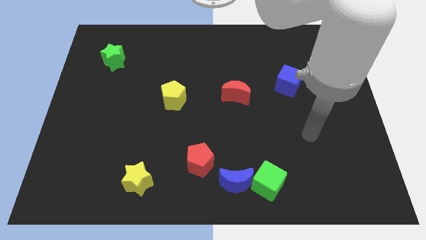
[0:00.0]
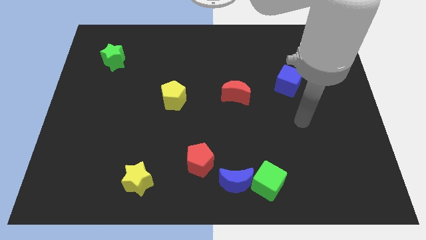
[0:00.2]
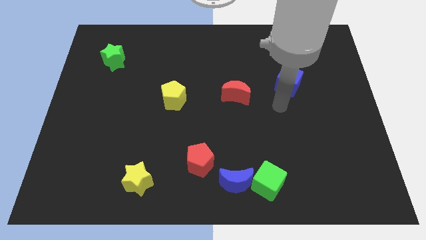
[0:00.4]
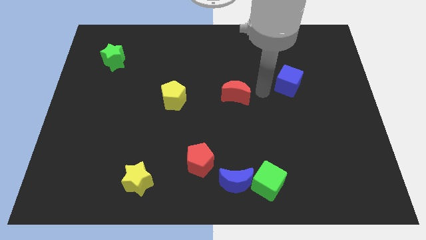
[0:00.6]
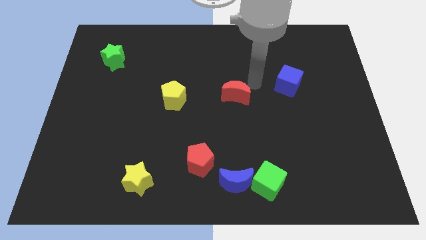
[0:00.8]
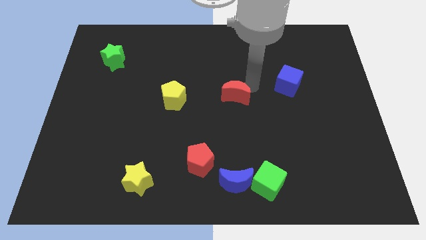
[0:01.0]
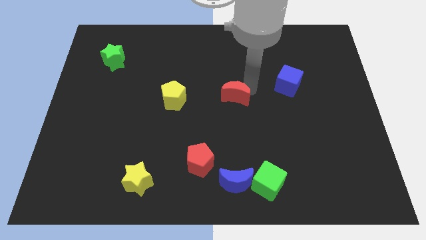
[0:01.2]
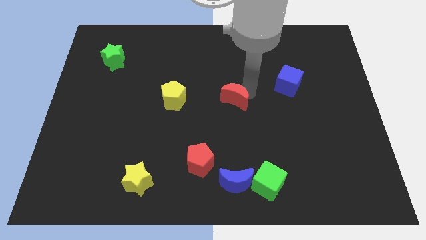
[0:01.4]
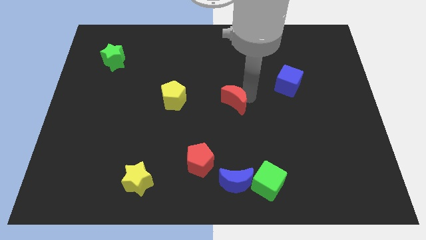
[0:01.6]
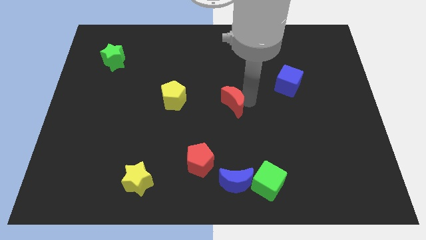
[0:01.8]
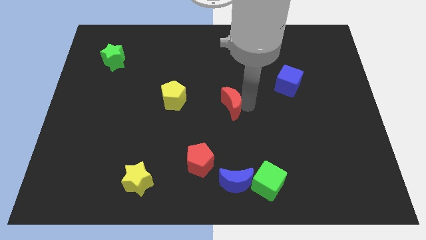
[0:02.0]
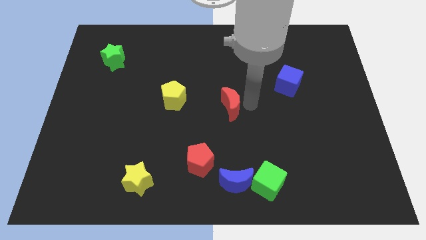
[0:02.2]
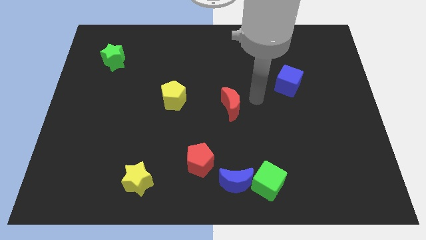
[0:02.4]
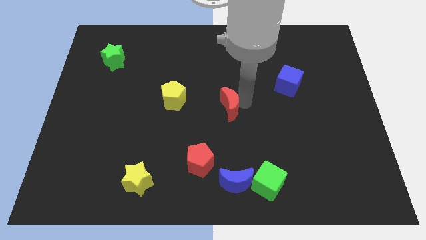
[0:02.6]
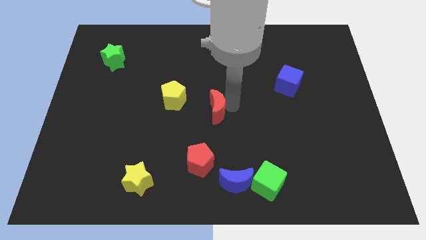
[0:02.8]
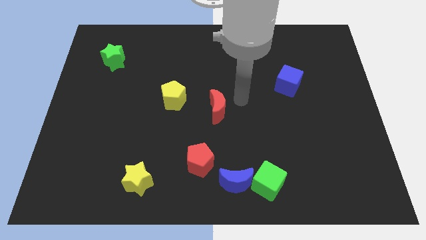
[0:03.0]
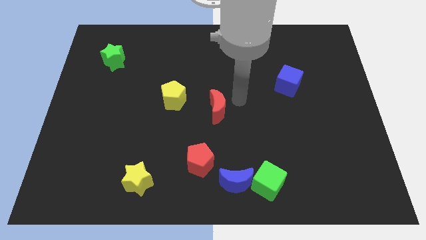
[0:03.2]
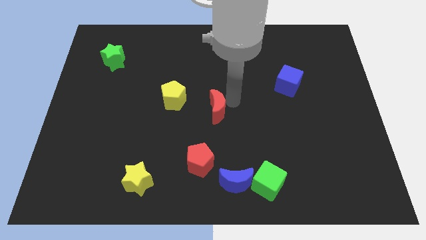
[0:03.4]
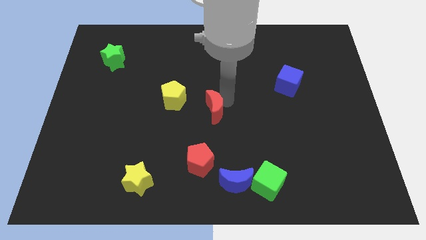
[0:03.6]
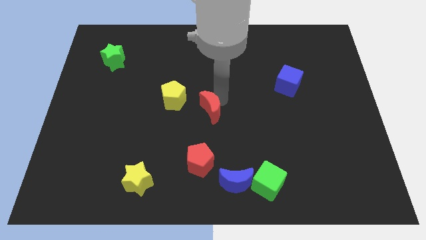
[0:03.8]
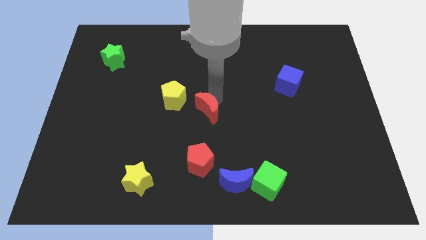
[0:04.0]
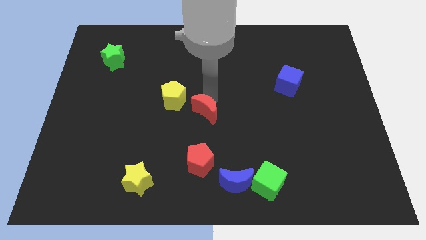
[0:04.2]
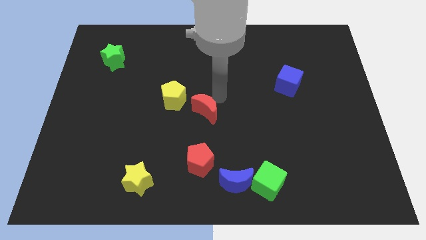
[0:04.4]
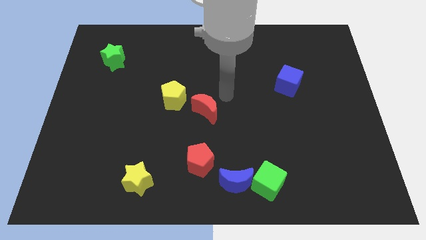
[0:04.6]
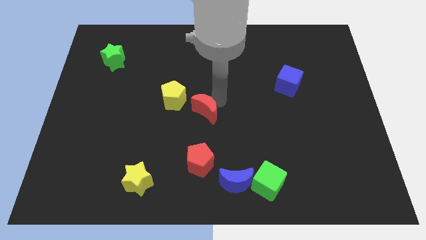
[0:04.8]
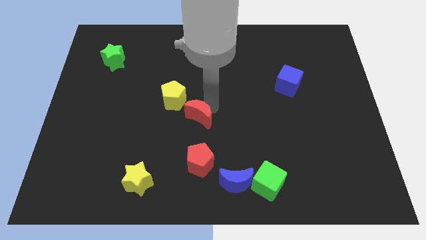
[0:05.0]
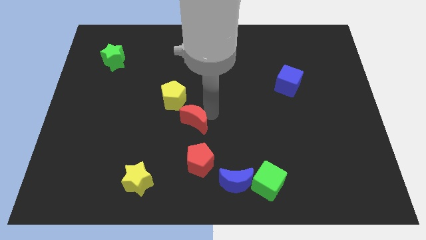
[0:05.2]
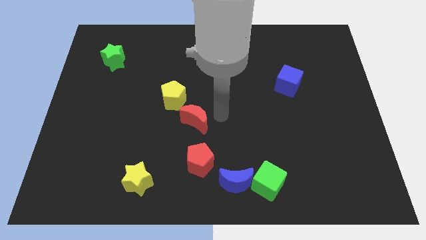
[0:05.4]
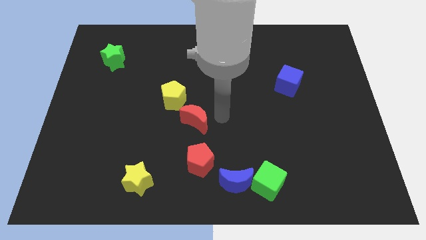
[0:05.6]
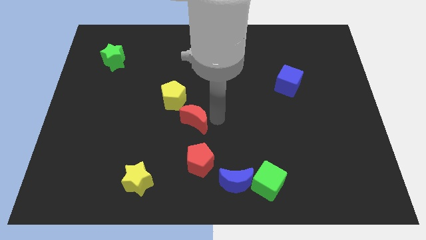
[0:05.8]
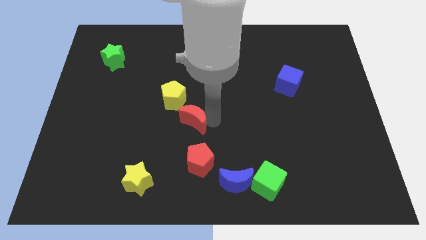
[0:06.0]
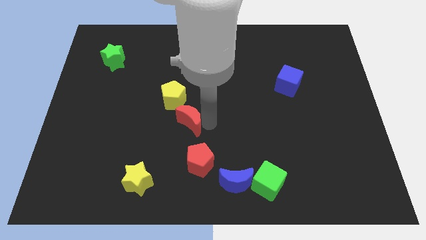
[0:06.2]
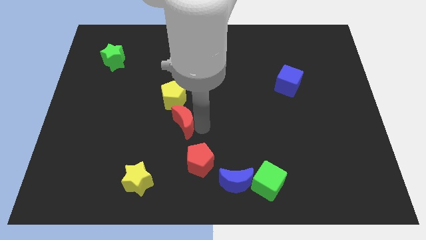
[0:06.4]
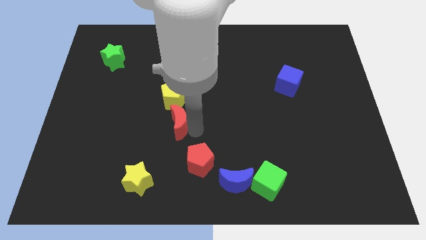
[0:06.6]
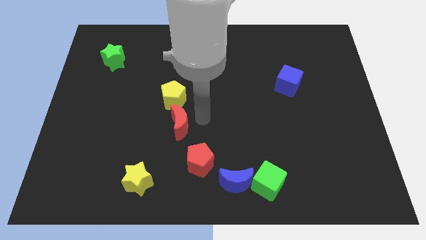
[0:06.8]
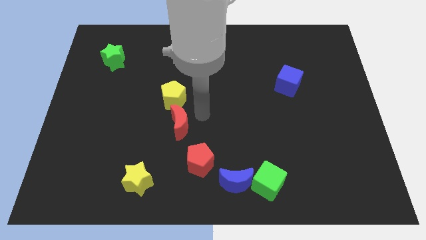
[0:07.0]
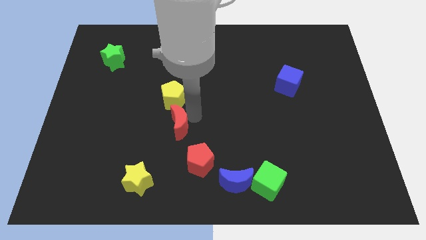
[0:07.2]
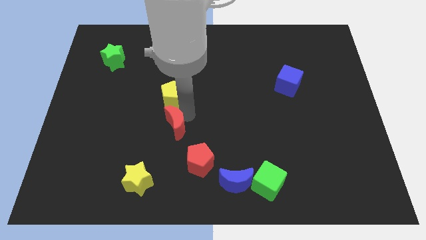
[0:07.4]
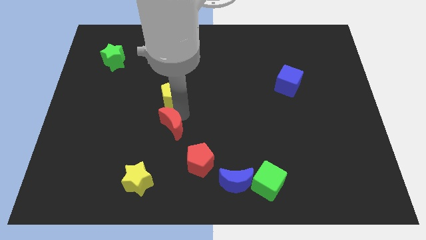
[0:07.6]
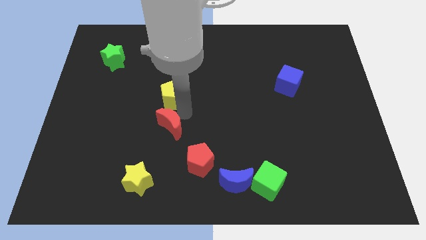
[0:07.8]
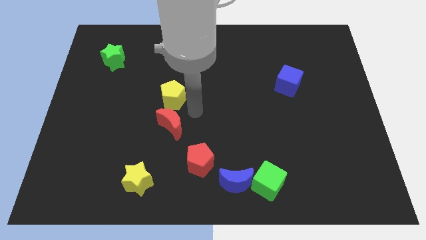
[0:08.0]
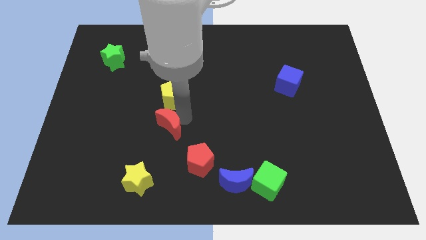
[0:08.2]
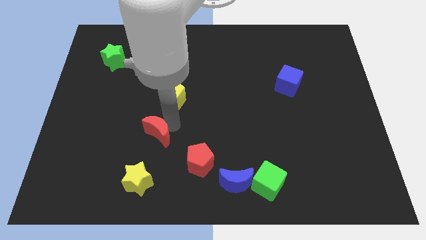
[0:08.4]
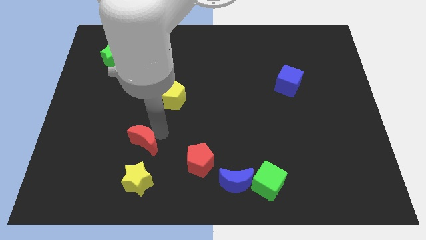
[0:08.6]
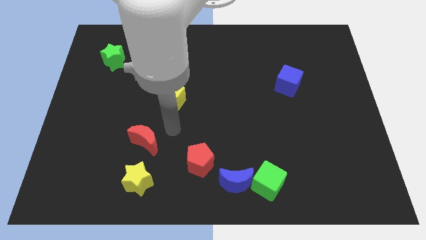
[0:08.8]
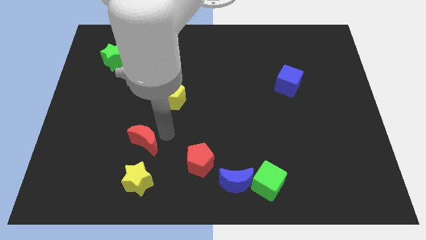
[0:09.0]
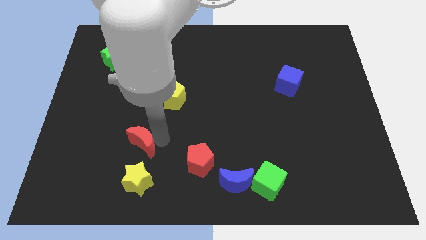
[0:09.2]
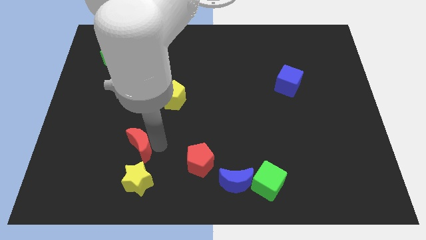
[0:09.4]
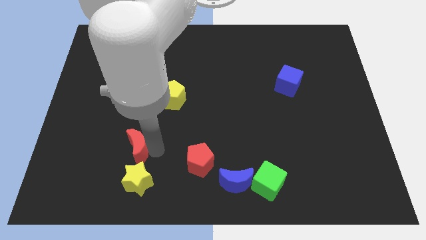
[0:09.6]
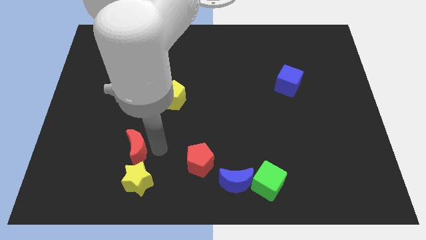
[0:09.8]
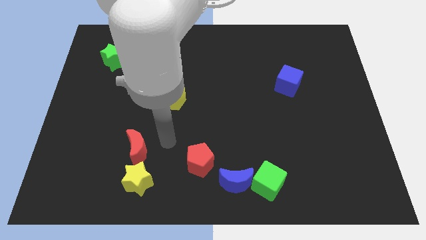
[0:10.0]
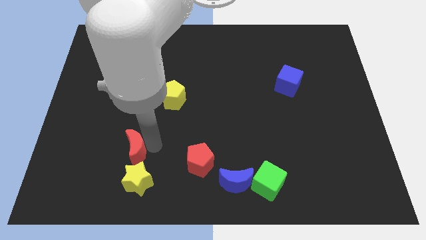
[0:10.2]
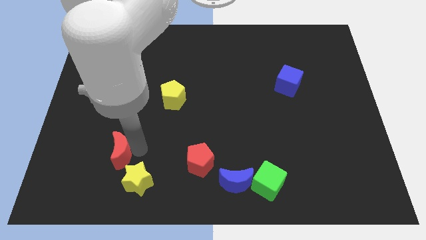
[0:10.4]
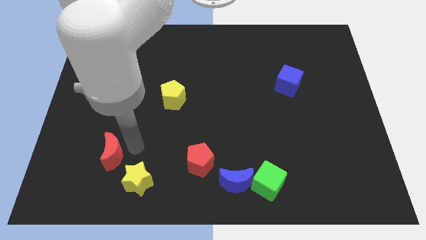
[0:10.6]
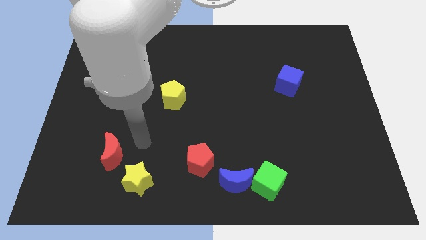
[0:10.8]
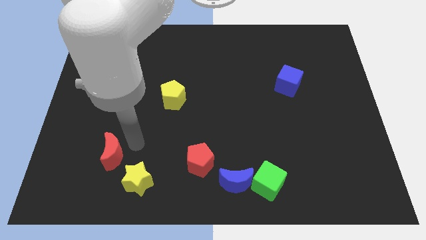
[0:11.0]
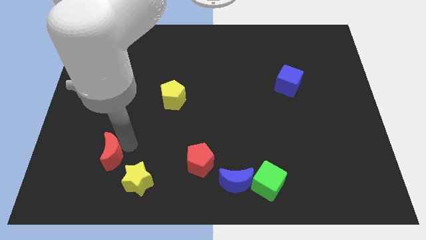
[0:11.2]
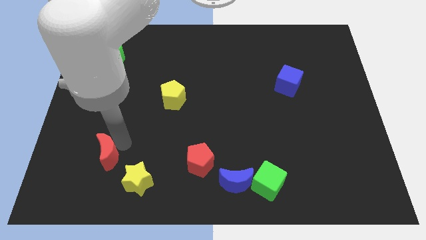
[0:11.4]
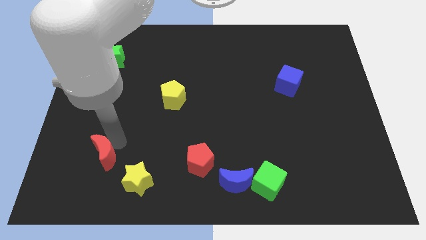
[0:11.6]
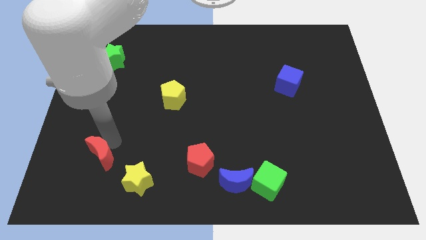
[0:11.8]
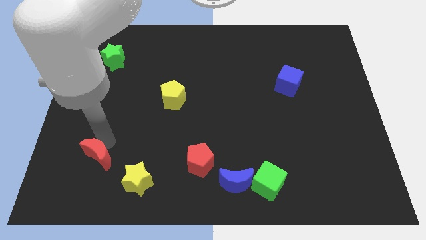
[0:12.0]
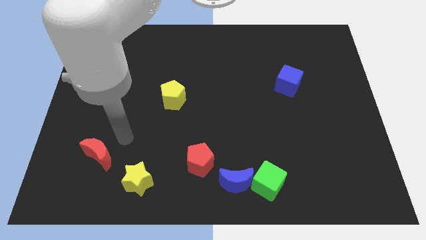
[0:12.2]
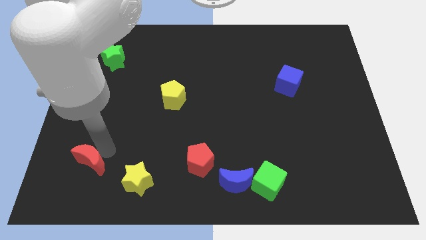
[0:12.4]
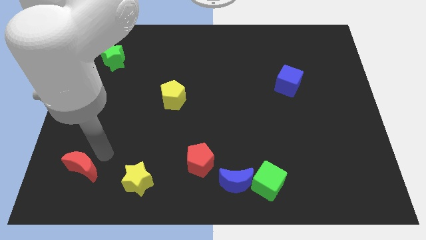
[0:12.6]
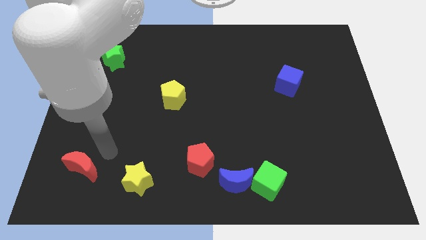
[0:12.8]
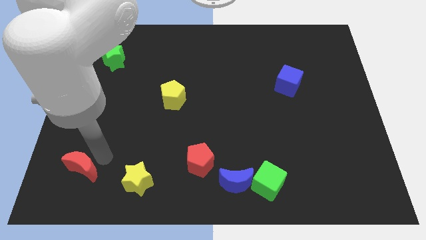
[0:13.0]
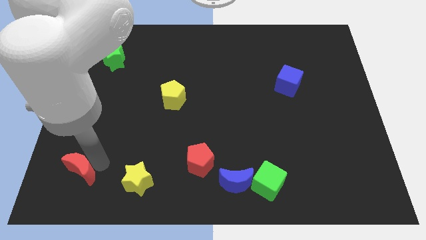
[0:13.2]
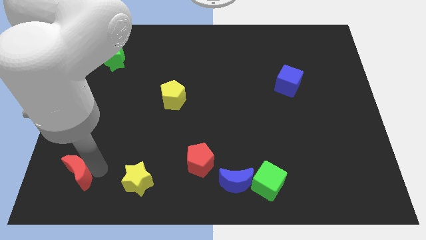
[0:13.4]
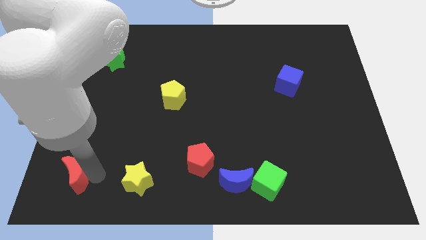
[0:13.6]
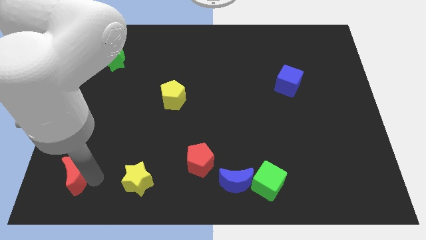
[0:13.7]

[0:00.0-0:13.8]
put the red moon to the lower left corner

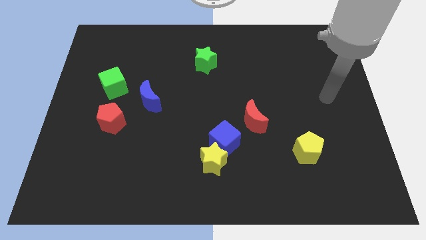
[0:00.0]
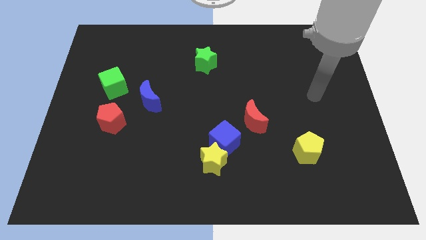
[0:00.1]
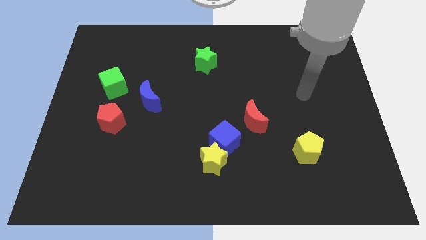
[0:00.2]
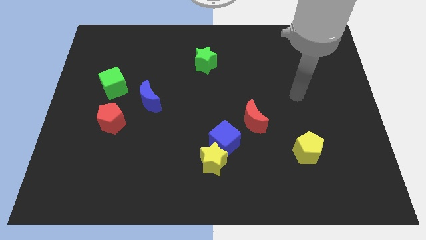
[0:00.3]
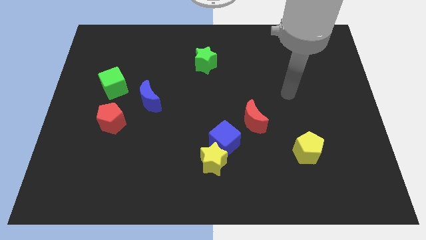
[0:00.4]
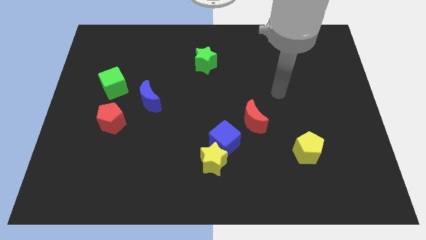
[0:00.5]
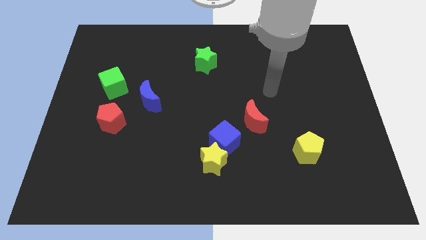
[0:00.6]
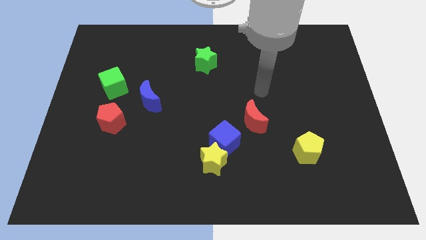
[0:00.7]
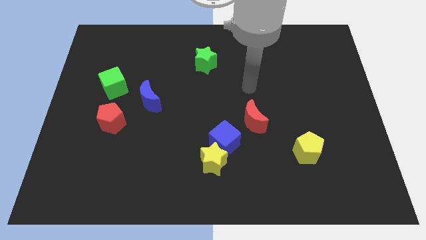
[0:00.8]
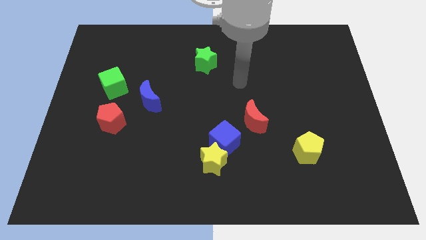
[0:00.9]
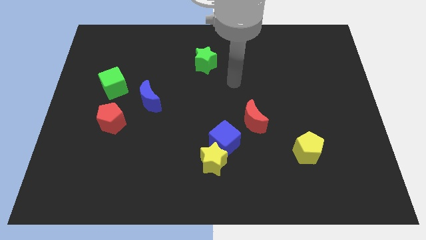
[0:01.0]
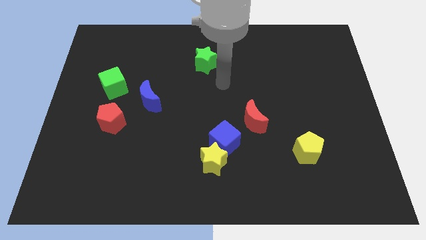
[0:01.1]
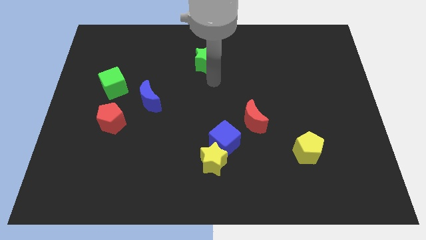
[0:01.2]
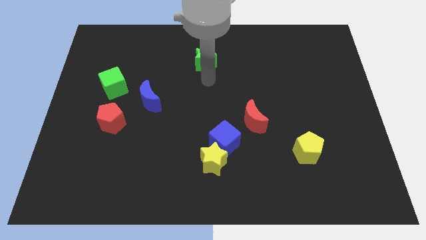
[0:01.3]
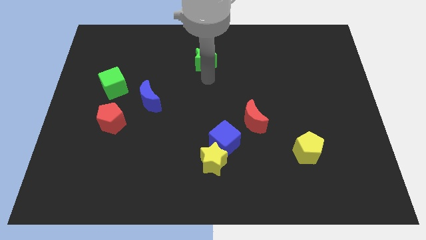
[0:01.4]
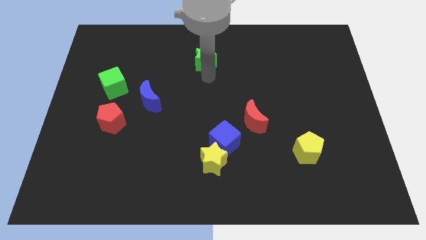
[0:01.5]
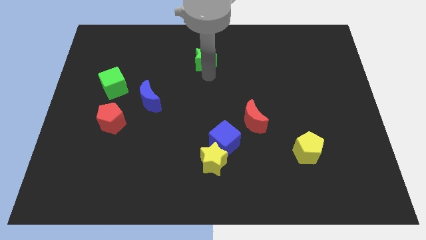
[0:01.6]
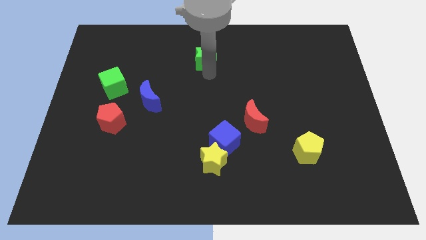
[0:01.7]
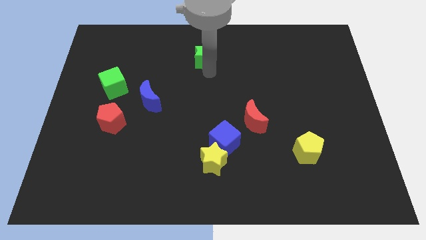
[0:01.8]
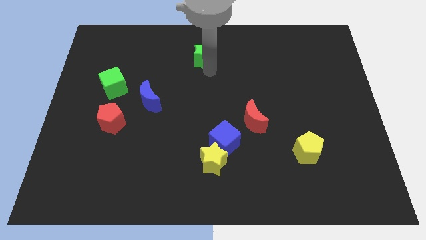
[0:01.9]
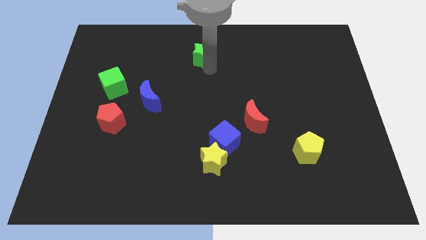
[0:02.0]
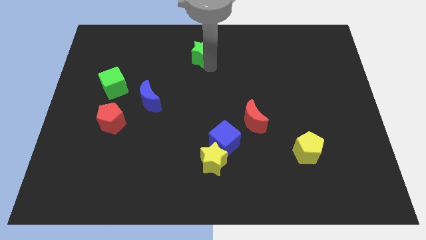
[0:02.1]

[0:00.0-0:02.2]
slide the green star to the top side
